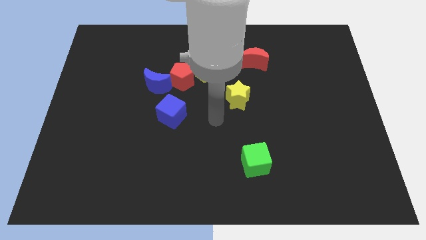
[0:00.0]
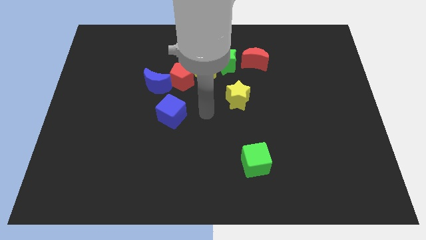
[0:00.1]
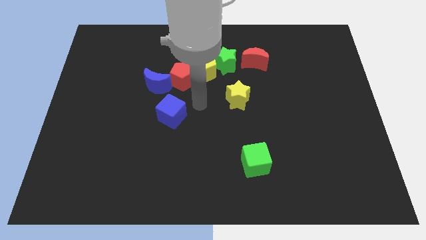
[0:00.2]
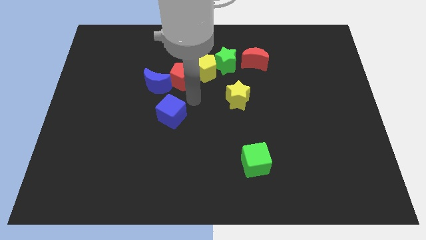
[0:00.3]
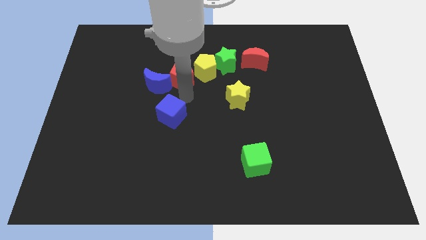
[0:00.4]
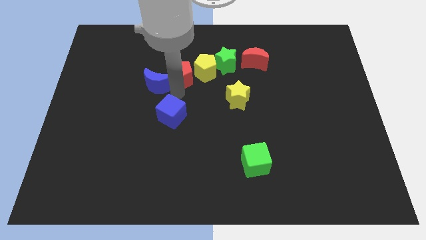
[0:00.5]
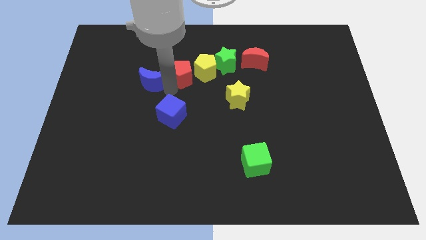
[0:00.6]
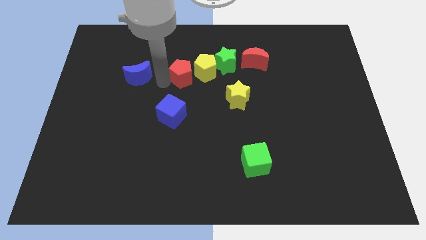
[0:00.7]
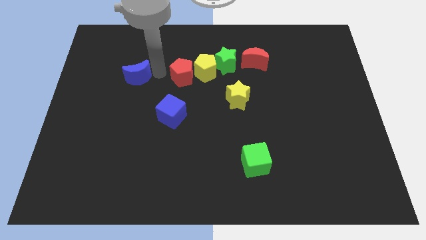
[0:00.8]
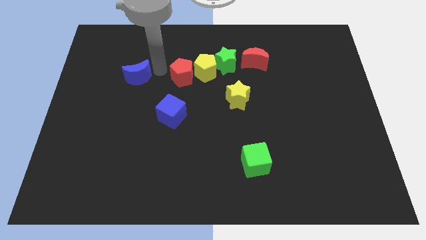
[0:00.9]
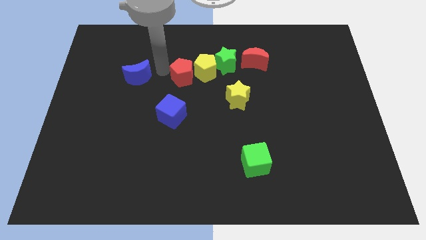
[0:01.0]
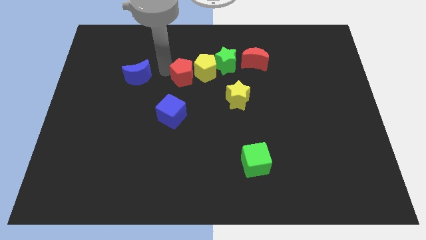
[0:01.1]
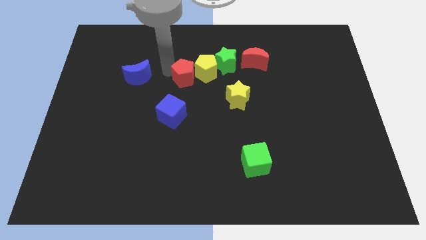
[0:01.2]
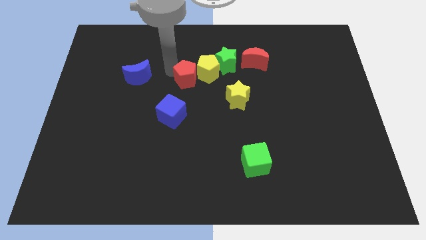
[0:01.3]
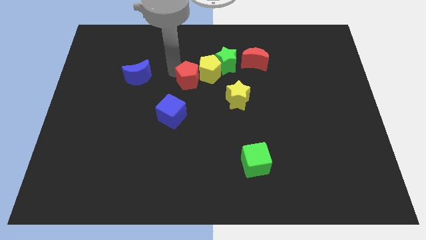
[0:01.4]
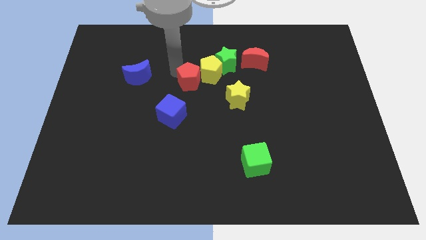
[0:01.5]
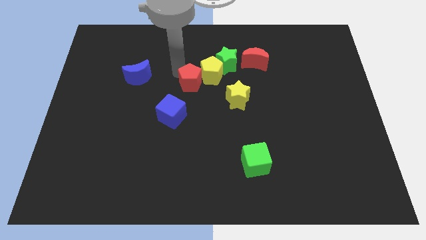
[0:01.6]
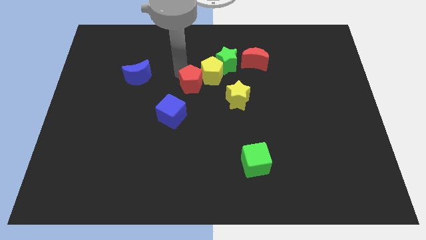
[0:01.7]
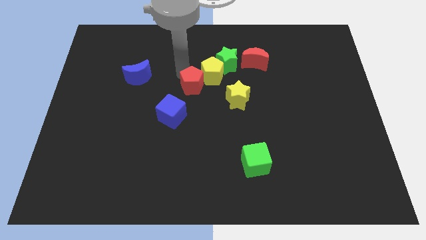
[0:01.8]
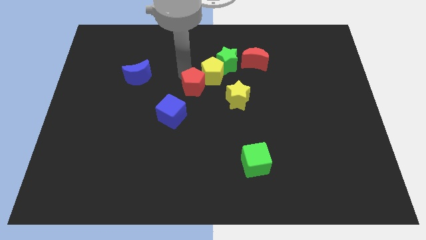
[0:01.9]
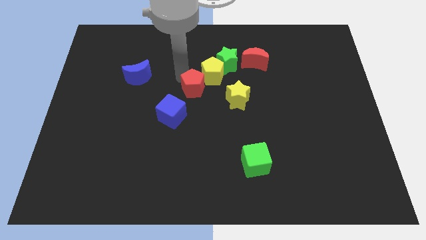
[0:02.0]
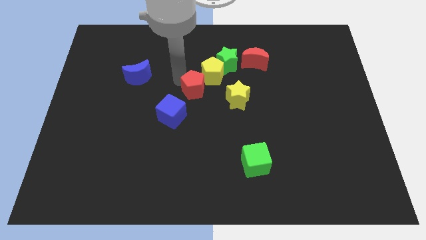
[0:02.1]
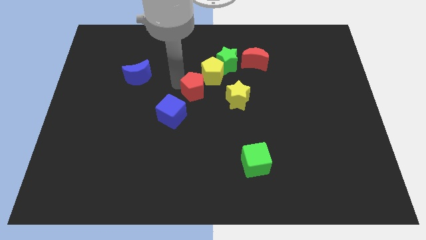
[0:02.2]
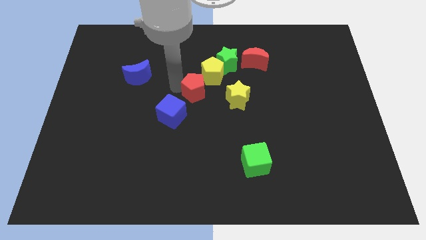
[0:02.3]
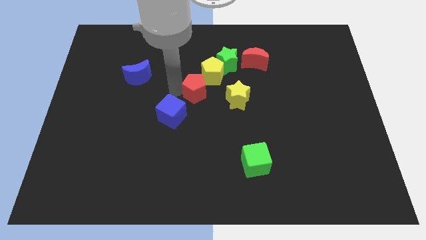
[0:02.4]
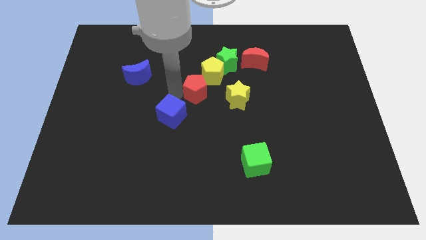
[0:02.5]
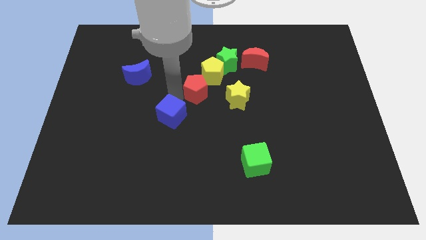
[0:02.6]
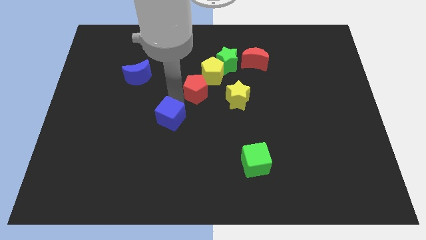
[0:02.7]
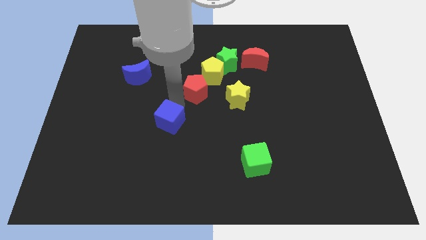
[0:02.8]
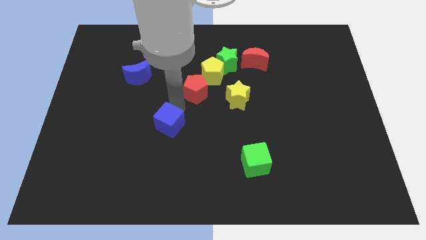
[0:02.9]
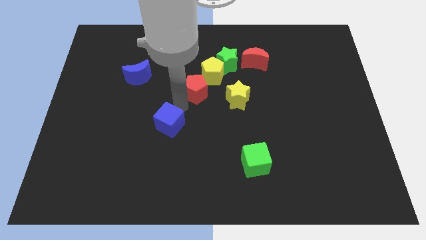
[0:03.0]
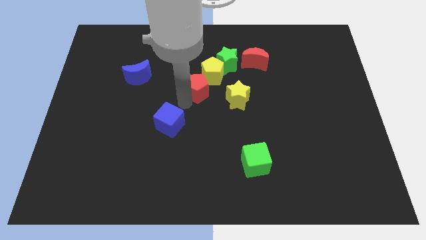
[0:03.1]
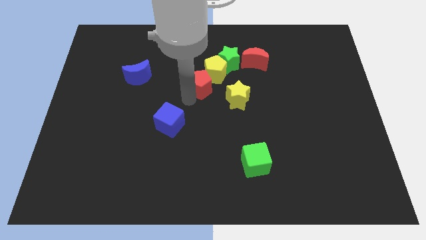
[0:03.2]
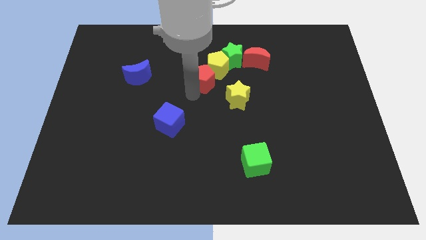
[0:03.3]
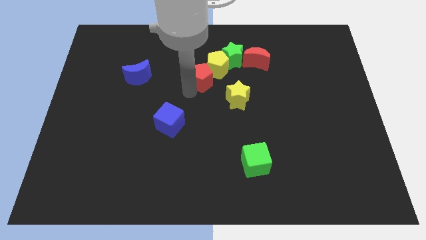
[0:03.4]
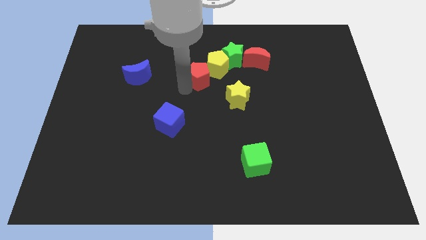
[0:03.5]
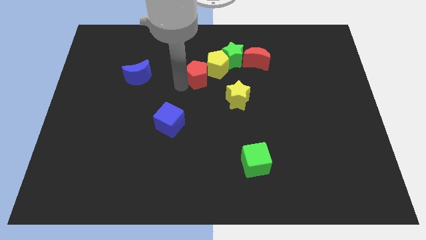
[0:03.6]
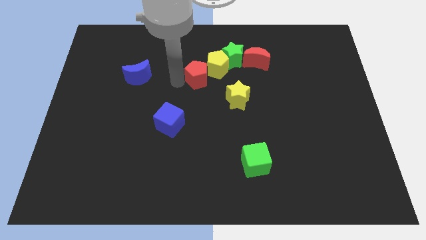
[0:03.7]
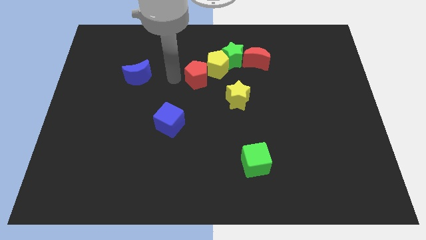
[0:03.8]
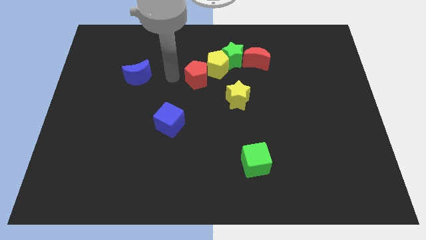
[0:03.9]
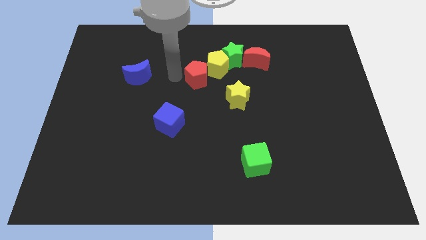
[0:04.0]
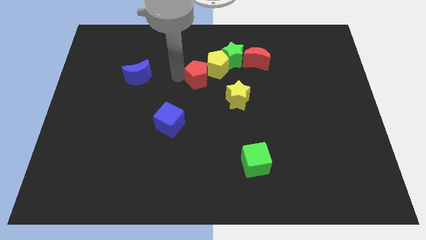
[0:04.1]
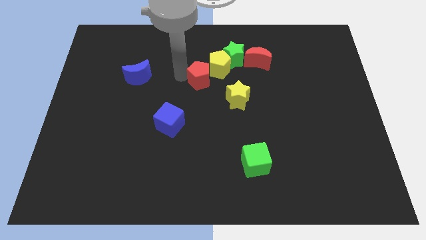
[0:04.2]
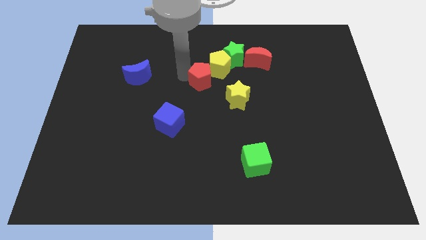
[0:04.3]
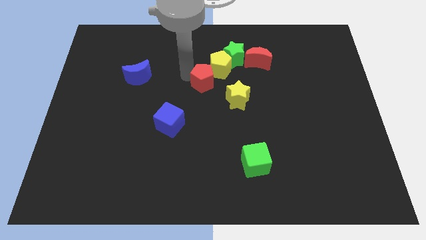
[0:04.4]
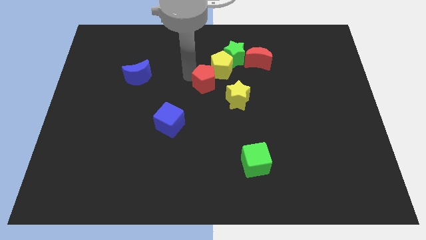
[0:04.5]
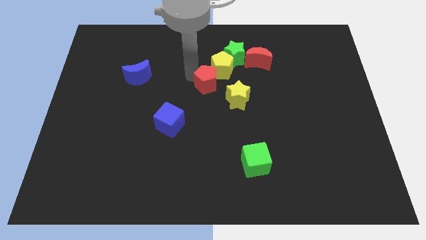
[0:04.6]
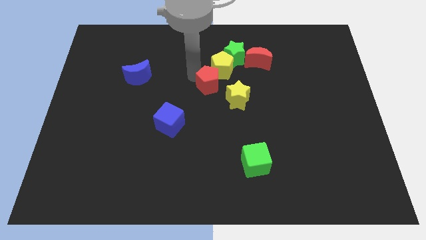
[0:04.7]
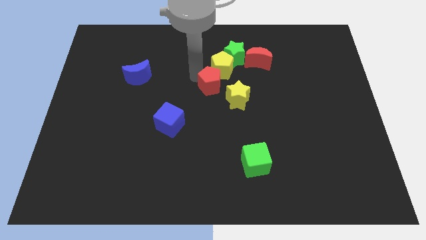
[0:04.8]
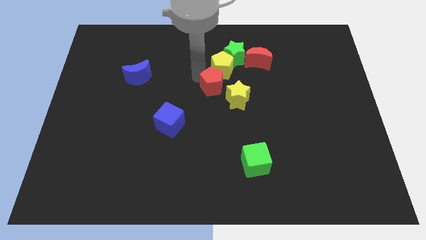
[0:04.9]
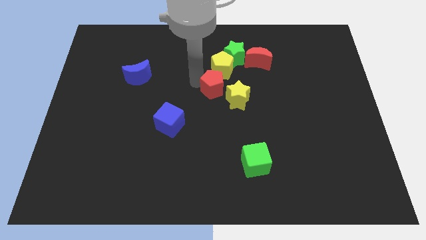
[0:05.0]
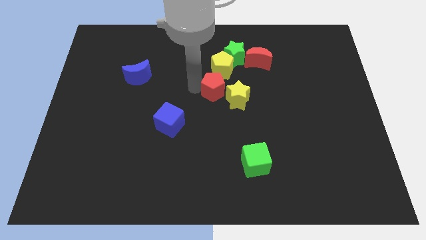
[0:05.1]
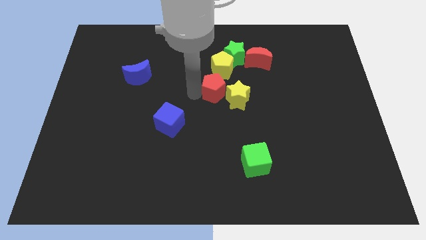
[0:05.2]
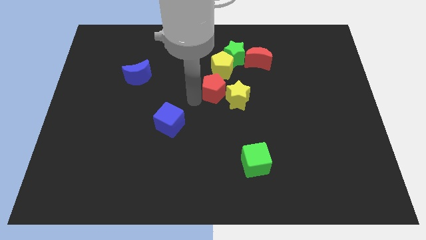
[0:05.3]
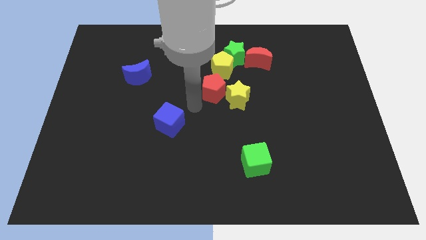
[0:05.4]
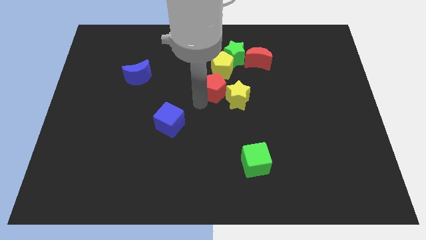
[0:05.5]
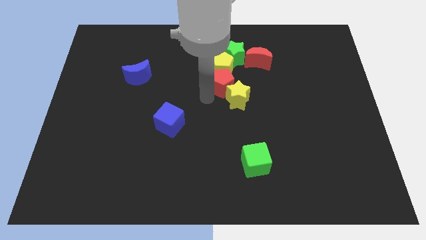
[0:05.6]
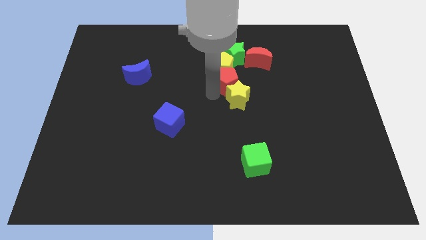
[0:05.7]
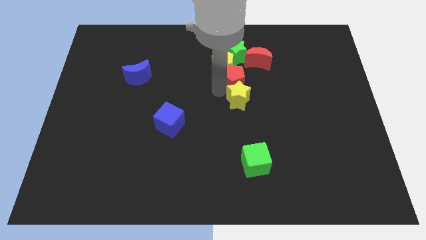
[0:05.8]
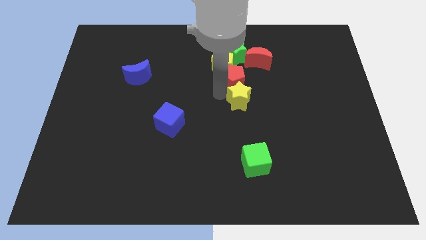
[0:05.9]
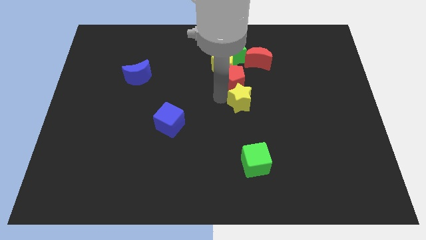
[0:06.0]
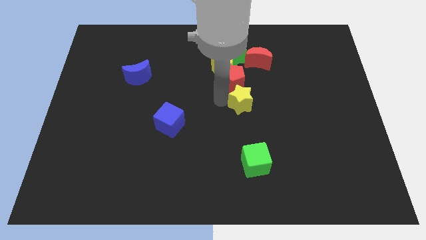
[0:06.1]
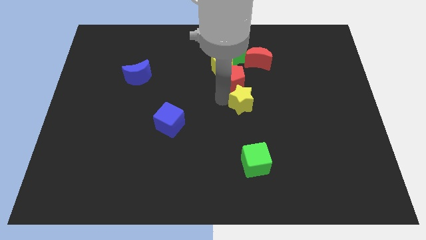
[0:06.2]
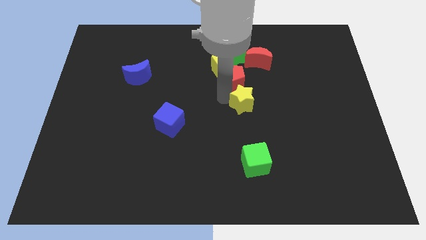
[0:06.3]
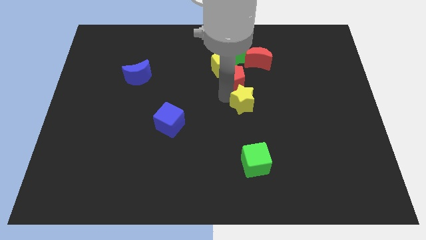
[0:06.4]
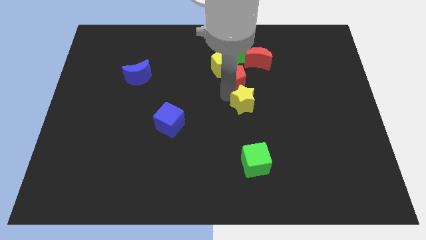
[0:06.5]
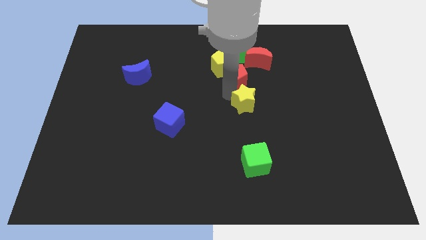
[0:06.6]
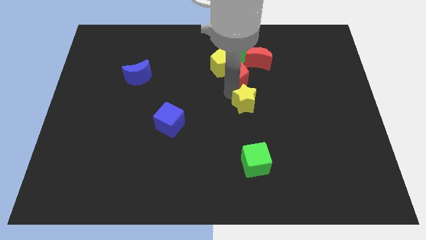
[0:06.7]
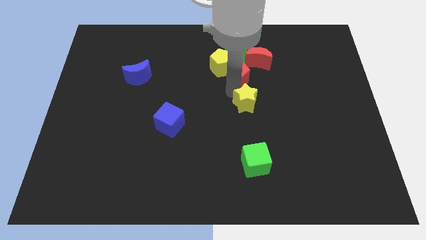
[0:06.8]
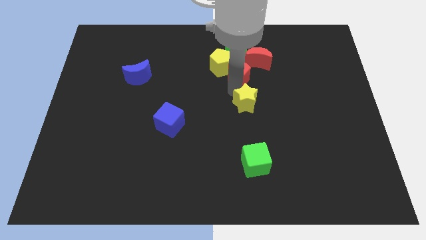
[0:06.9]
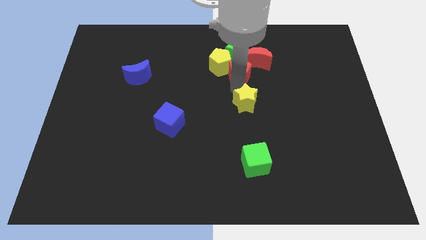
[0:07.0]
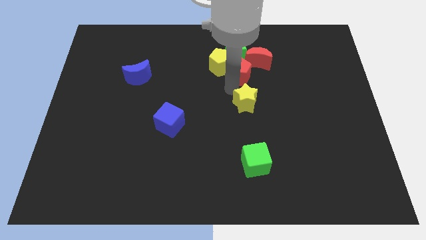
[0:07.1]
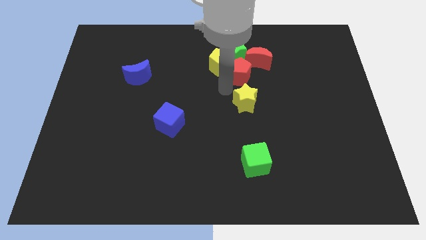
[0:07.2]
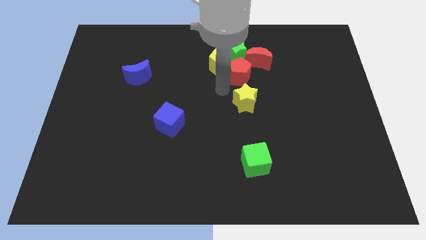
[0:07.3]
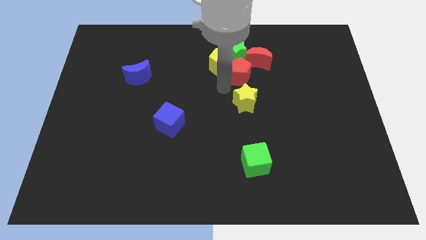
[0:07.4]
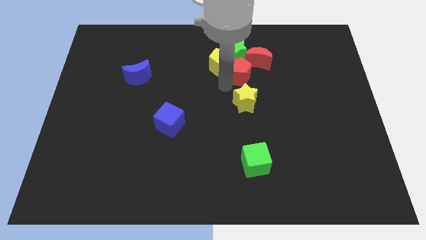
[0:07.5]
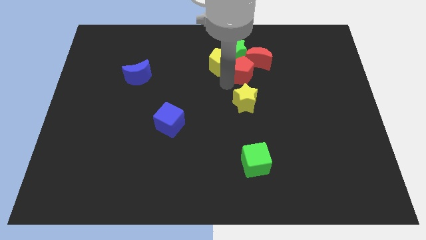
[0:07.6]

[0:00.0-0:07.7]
move the red pentagon close to the red moon
